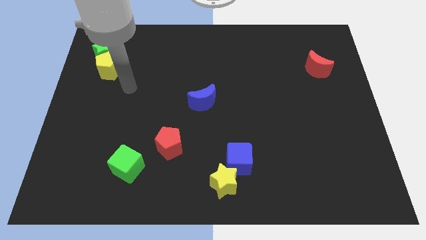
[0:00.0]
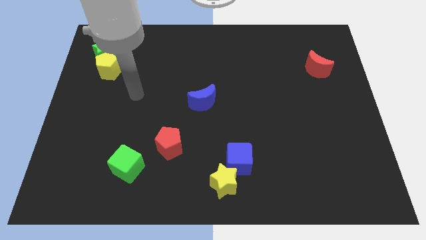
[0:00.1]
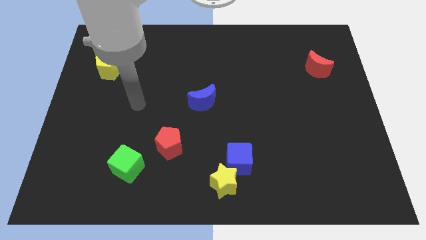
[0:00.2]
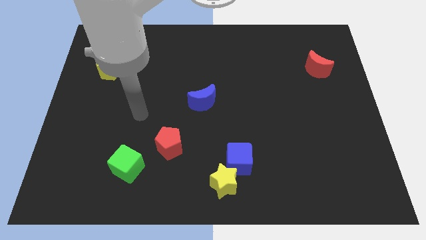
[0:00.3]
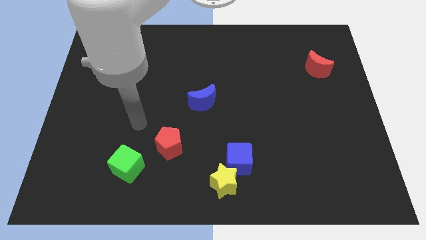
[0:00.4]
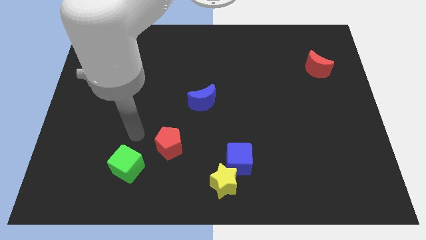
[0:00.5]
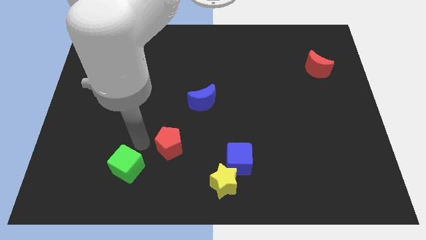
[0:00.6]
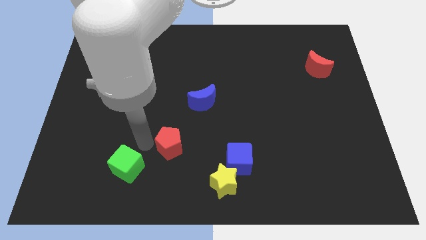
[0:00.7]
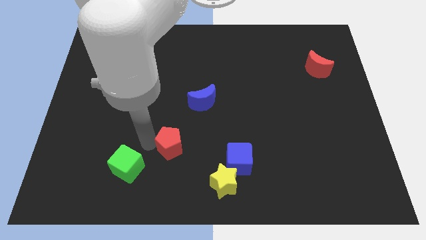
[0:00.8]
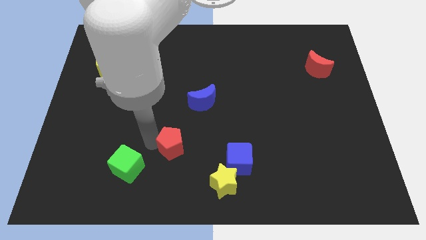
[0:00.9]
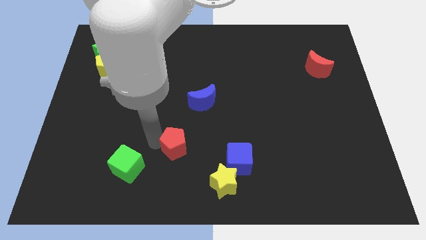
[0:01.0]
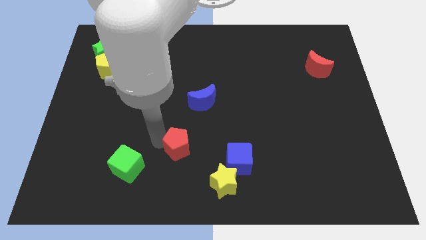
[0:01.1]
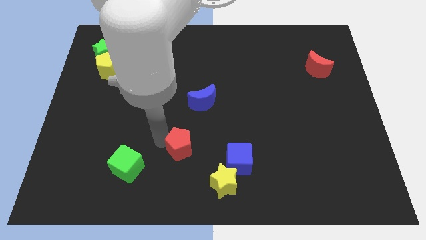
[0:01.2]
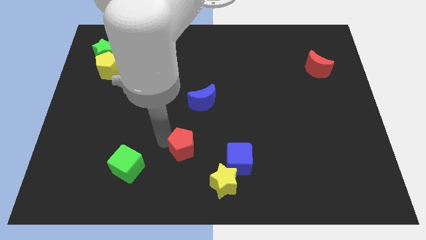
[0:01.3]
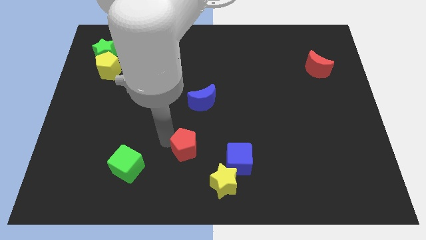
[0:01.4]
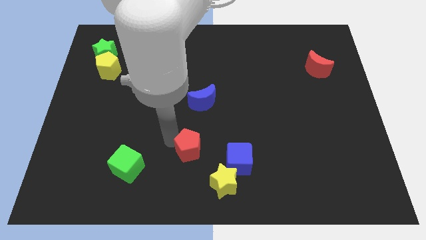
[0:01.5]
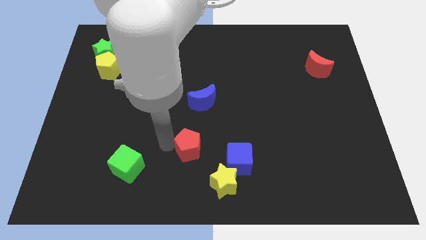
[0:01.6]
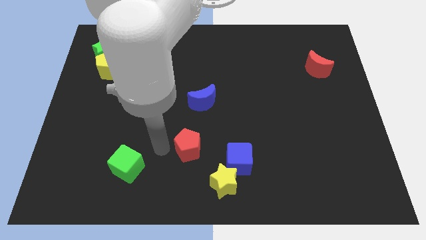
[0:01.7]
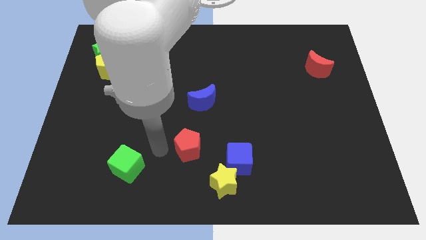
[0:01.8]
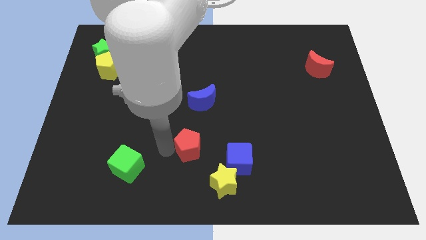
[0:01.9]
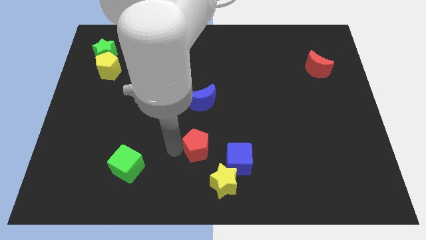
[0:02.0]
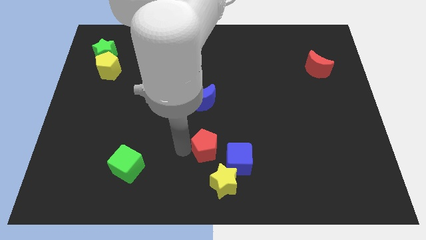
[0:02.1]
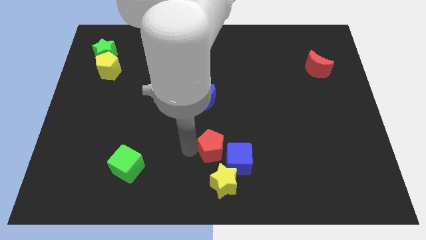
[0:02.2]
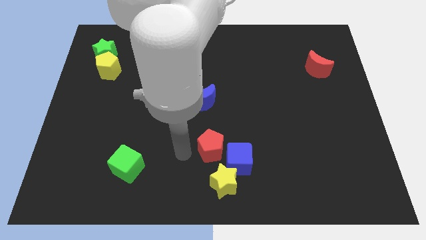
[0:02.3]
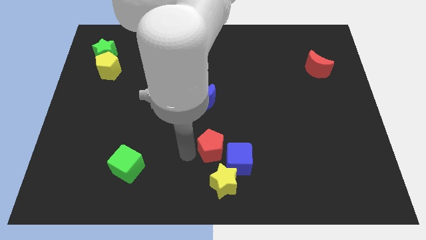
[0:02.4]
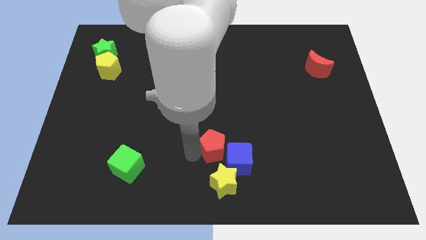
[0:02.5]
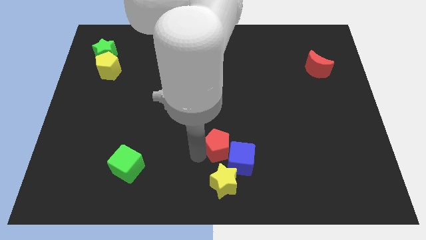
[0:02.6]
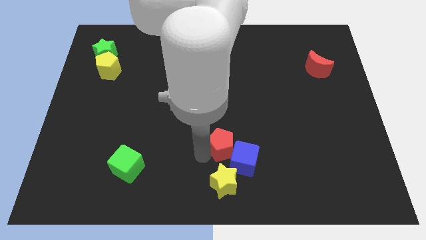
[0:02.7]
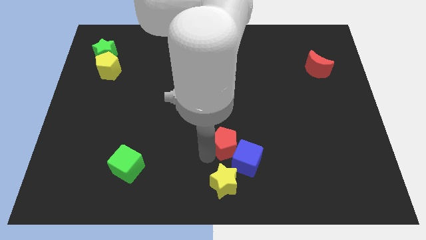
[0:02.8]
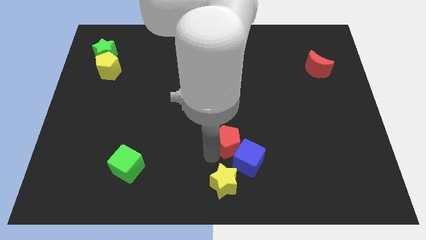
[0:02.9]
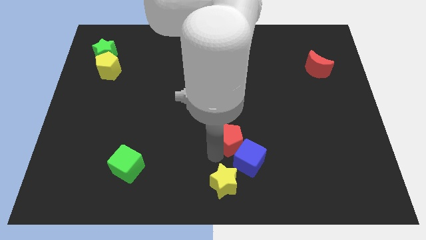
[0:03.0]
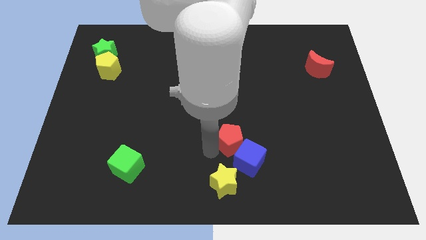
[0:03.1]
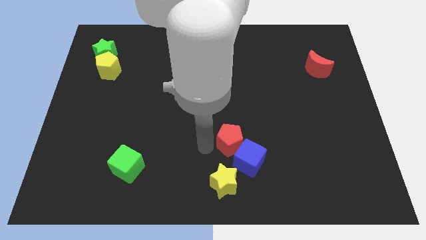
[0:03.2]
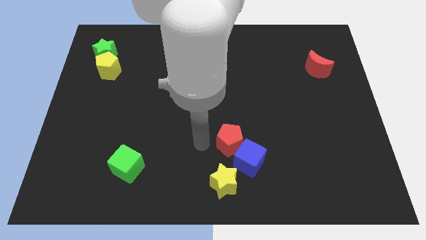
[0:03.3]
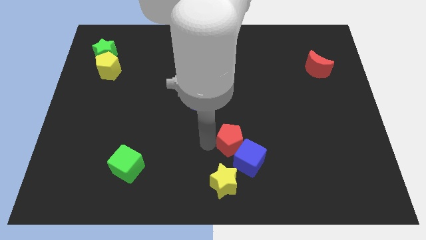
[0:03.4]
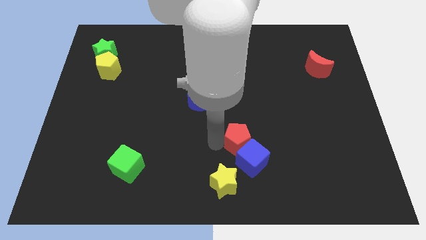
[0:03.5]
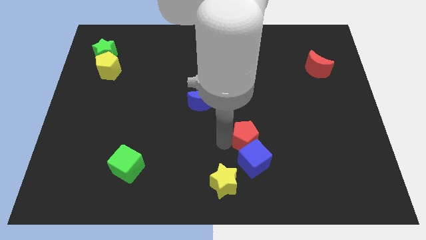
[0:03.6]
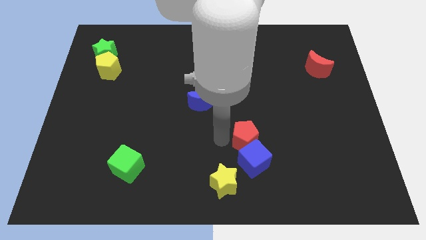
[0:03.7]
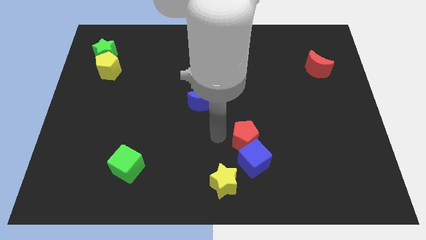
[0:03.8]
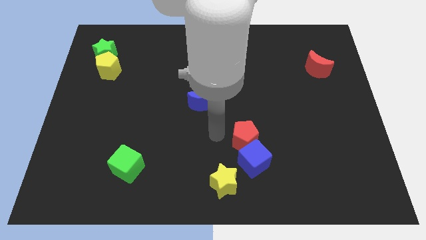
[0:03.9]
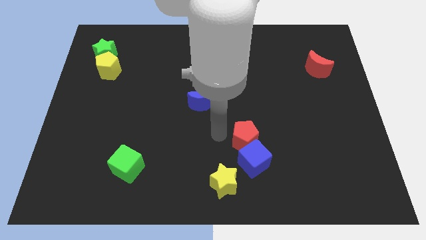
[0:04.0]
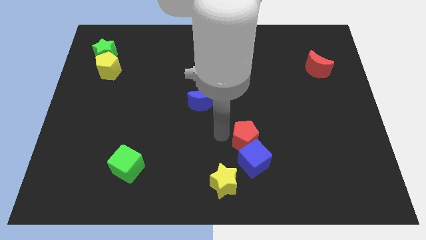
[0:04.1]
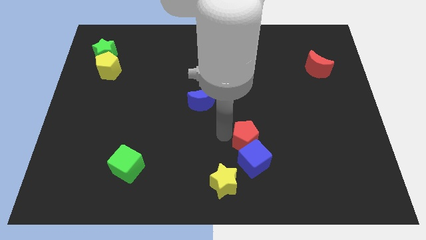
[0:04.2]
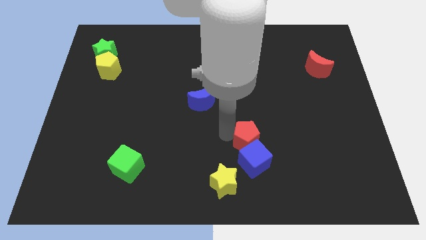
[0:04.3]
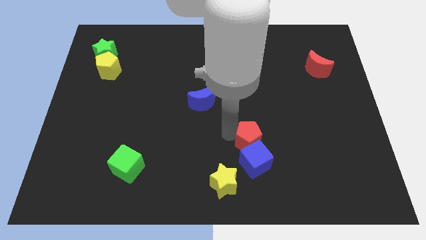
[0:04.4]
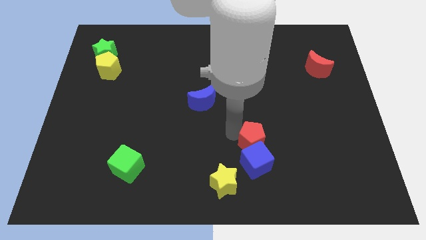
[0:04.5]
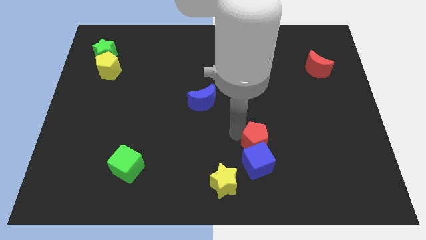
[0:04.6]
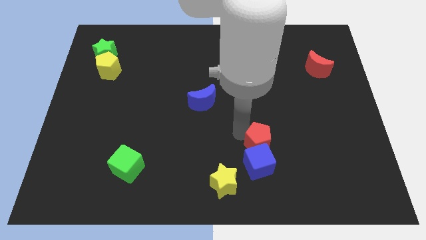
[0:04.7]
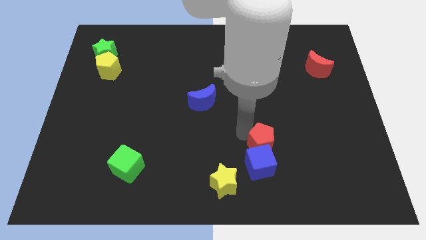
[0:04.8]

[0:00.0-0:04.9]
slide the red pentagon to the right

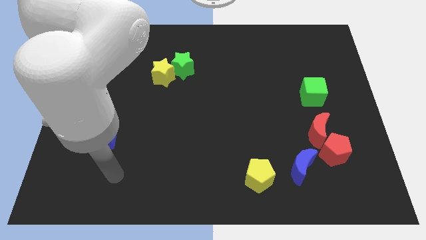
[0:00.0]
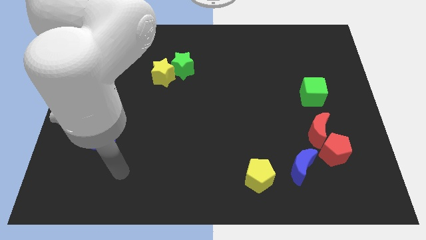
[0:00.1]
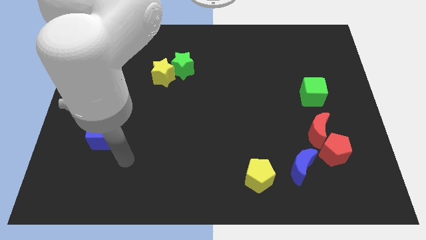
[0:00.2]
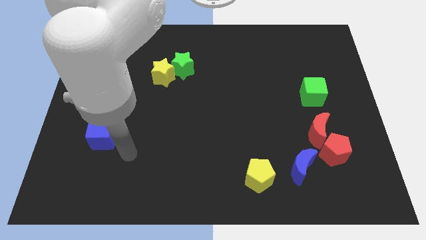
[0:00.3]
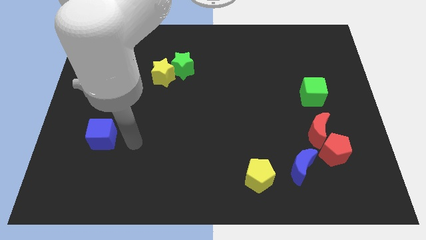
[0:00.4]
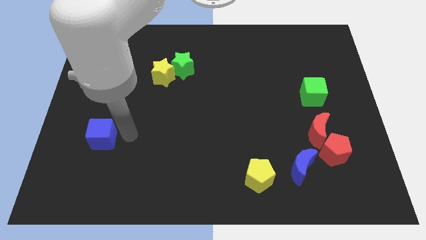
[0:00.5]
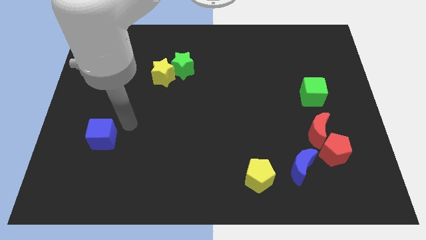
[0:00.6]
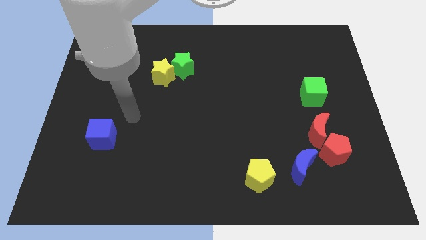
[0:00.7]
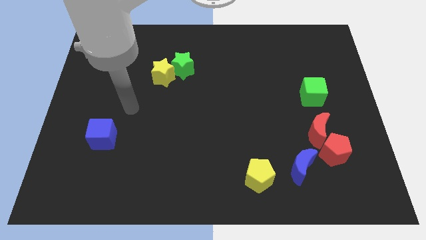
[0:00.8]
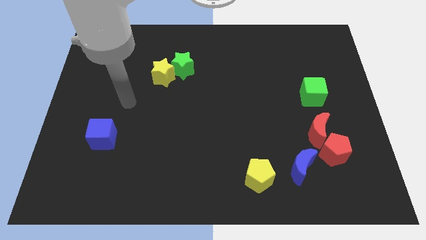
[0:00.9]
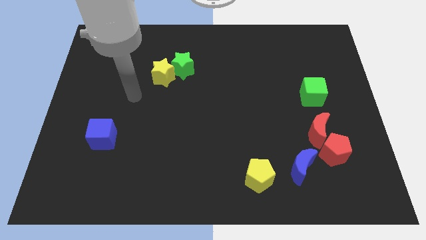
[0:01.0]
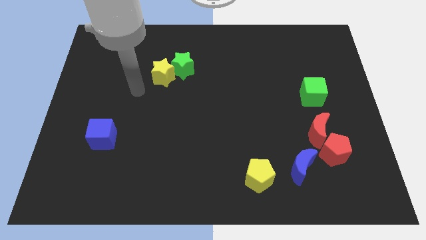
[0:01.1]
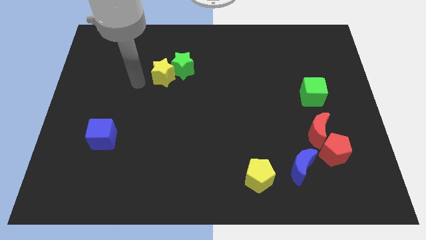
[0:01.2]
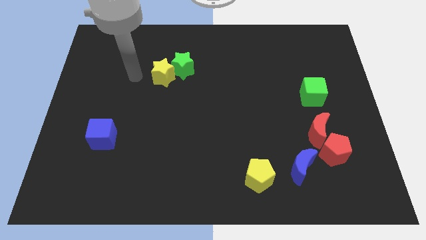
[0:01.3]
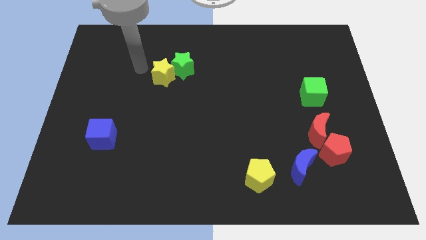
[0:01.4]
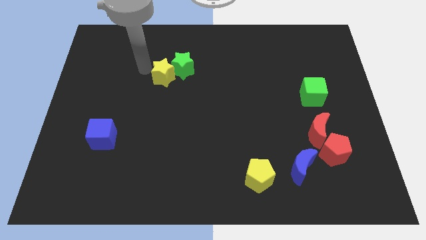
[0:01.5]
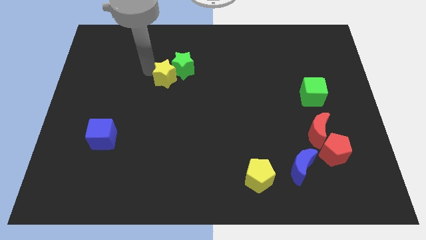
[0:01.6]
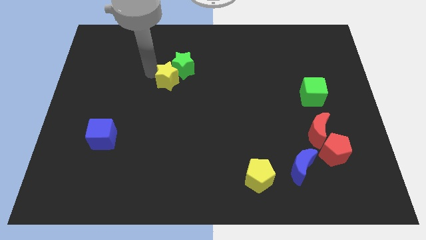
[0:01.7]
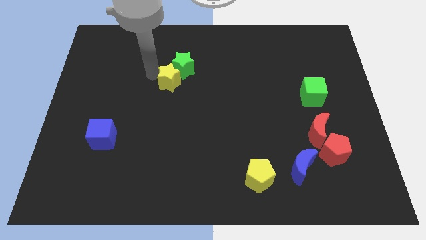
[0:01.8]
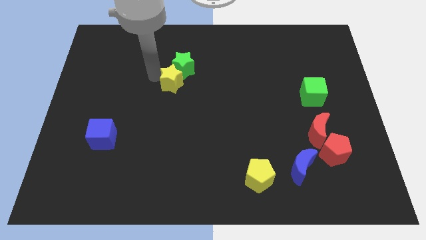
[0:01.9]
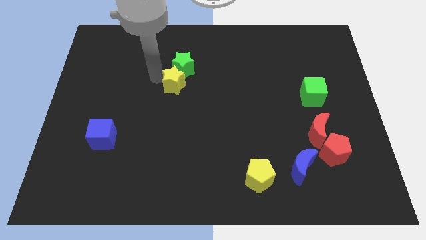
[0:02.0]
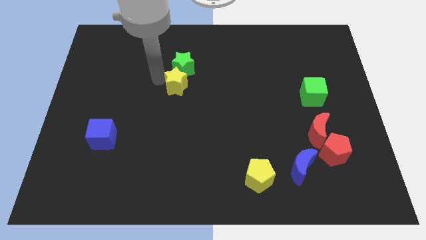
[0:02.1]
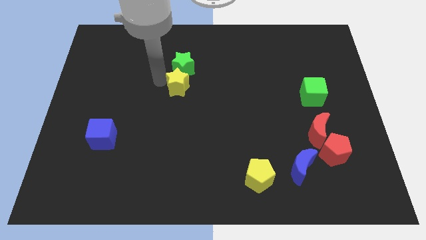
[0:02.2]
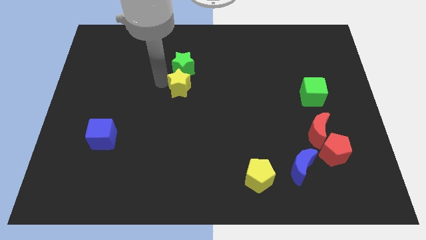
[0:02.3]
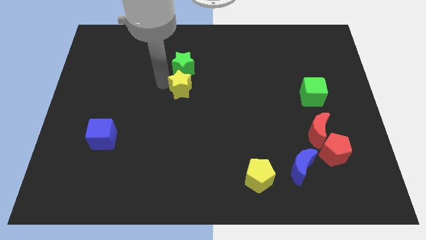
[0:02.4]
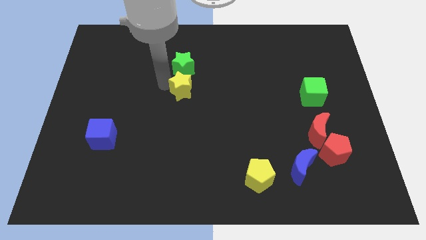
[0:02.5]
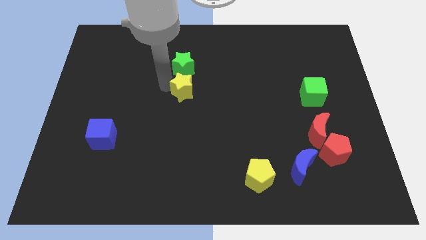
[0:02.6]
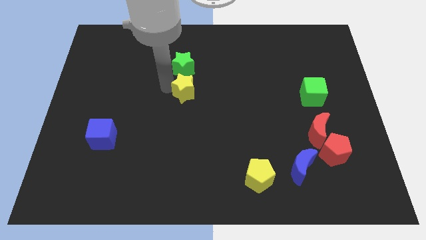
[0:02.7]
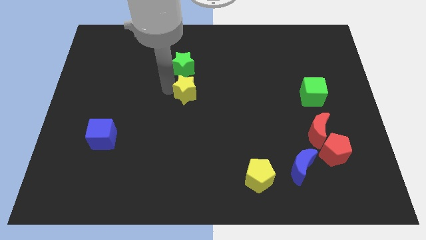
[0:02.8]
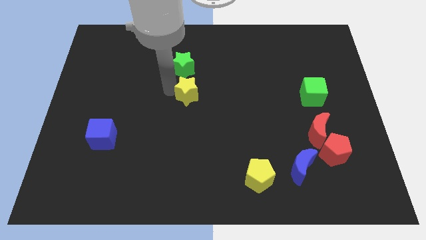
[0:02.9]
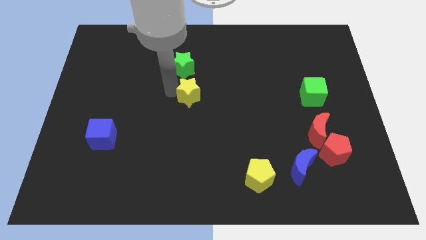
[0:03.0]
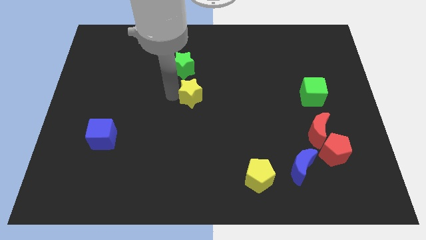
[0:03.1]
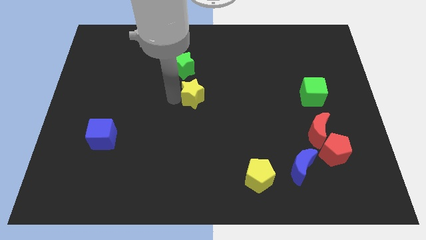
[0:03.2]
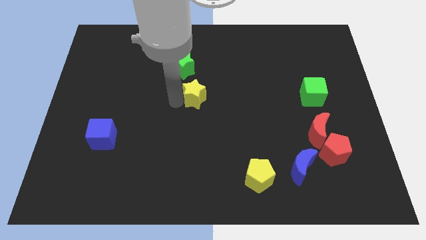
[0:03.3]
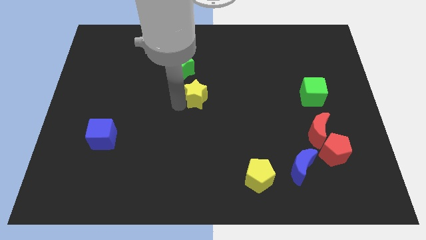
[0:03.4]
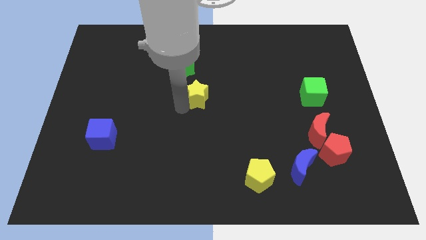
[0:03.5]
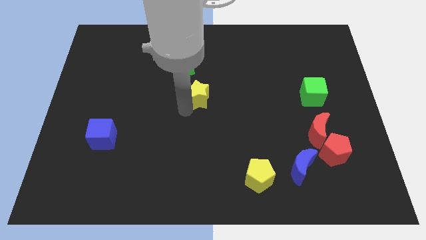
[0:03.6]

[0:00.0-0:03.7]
slide the yellow star to the right a little bit
